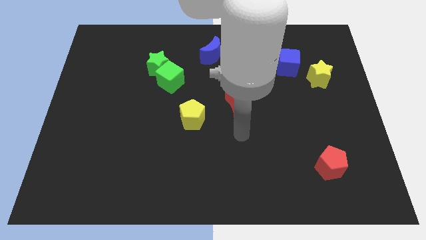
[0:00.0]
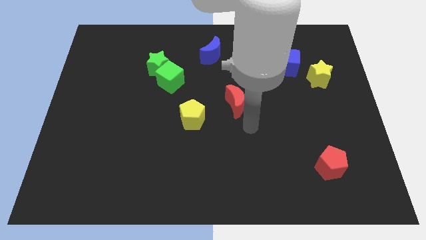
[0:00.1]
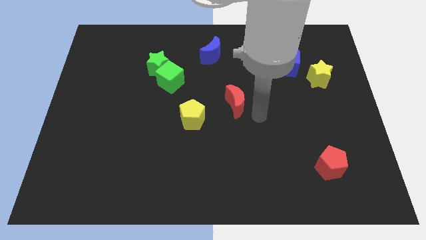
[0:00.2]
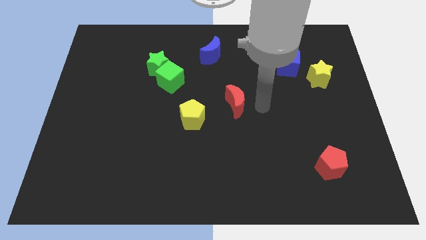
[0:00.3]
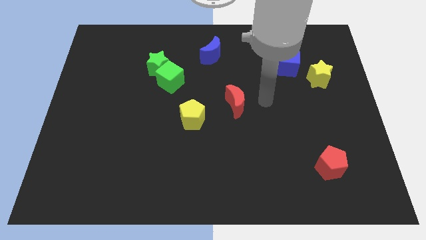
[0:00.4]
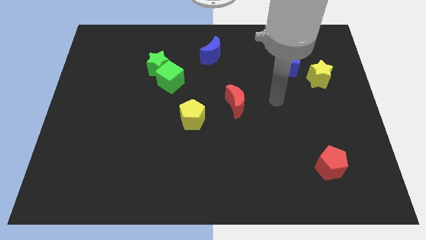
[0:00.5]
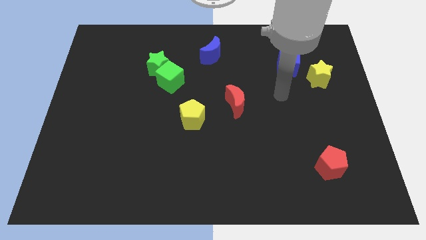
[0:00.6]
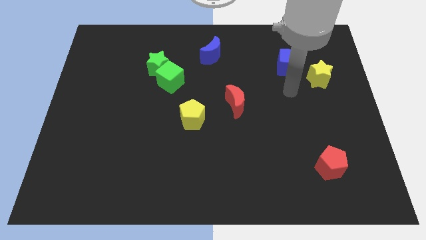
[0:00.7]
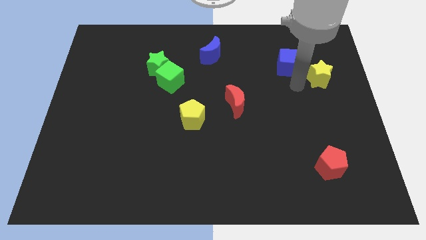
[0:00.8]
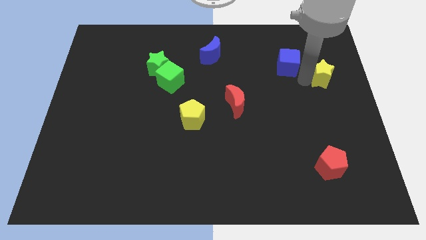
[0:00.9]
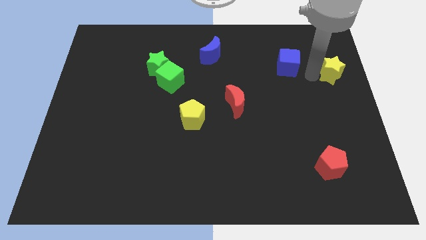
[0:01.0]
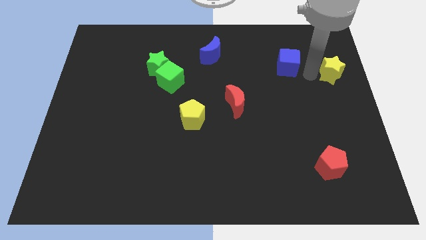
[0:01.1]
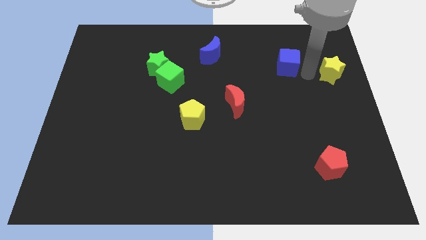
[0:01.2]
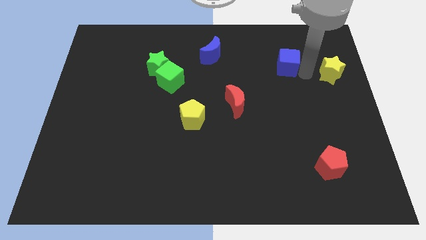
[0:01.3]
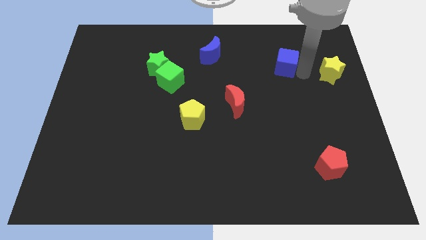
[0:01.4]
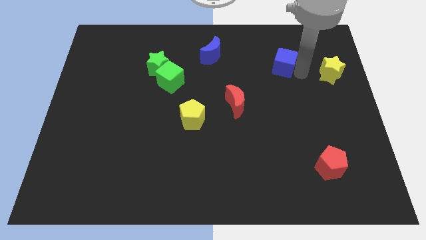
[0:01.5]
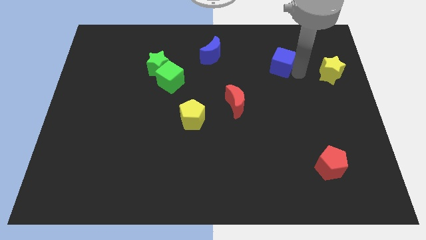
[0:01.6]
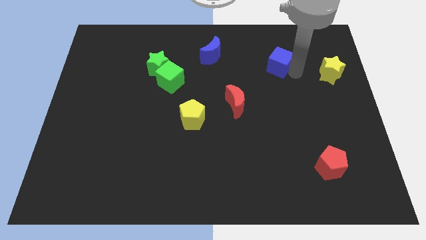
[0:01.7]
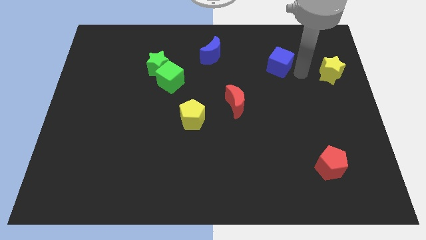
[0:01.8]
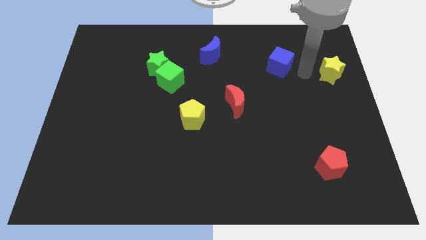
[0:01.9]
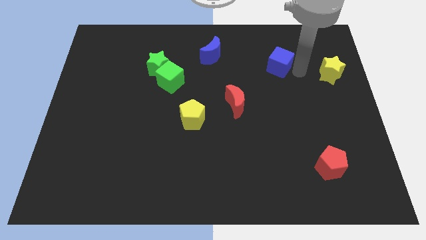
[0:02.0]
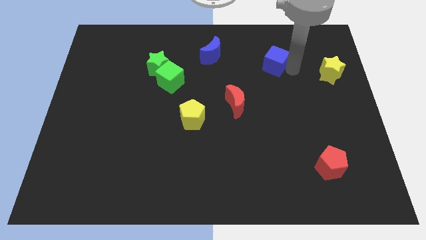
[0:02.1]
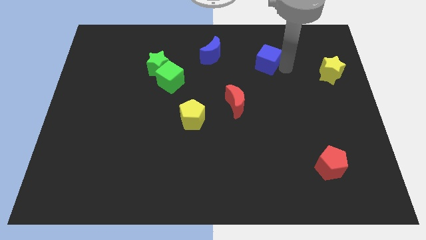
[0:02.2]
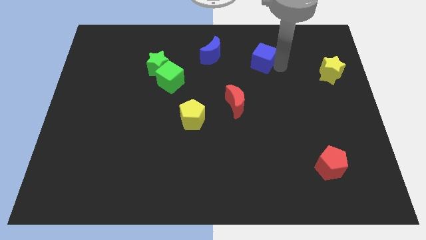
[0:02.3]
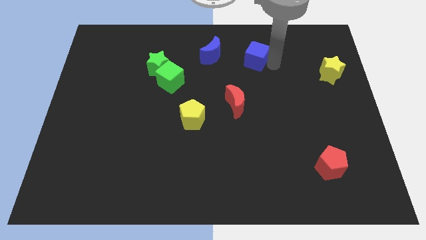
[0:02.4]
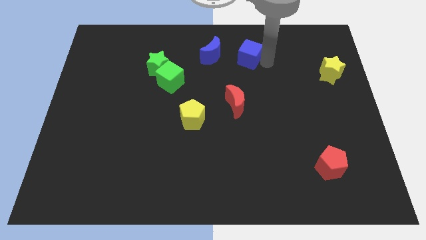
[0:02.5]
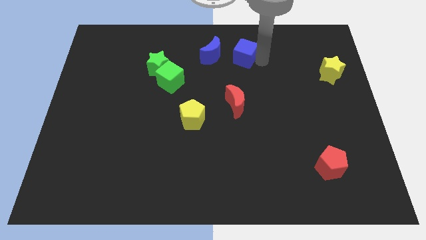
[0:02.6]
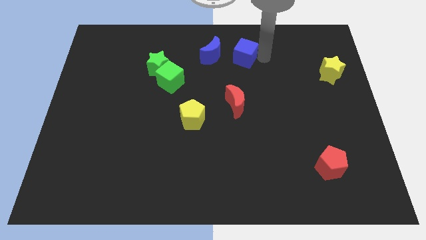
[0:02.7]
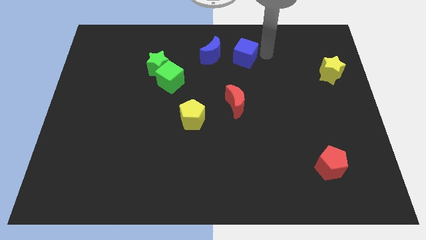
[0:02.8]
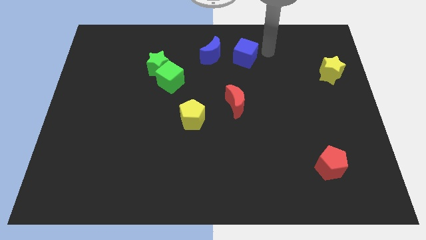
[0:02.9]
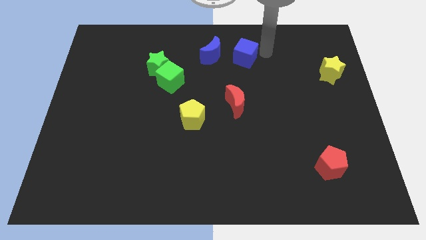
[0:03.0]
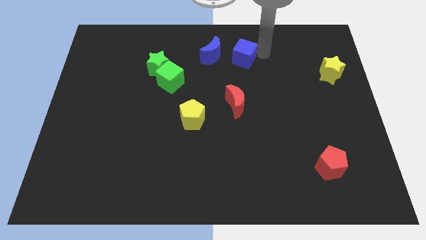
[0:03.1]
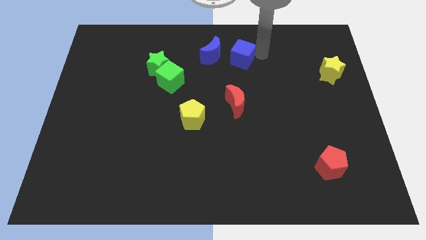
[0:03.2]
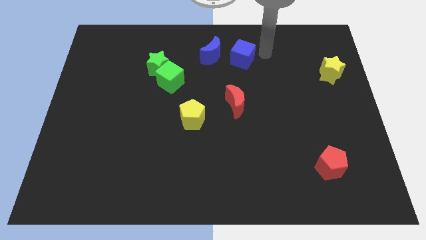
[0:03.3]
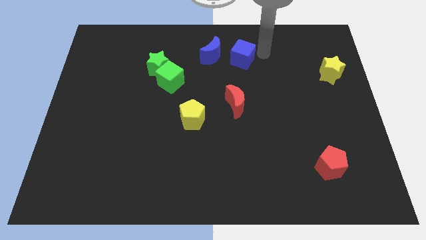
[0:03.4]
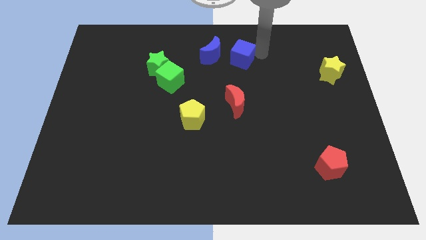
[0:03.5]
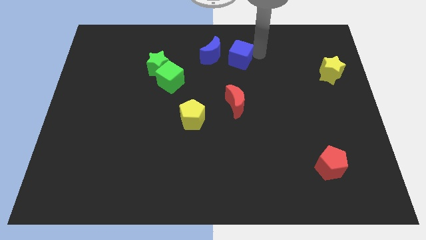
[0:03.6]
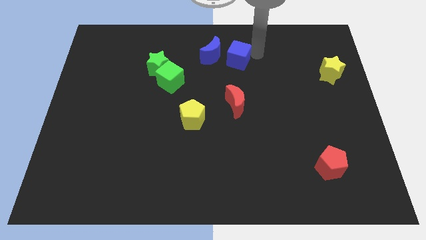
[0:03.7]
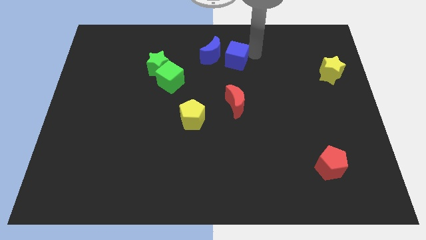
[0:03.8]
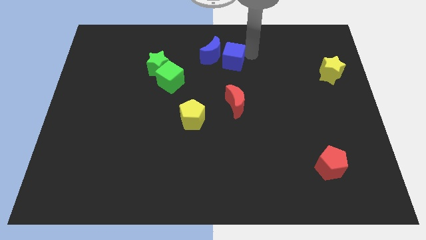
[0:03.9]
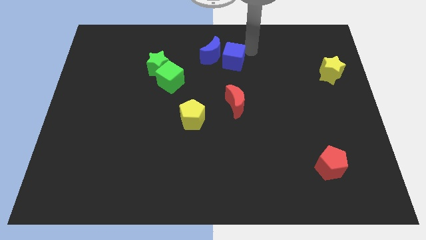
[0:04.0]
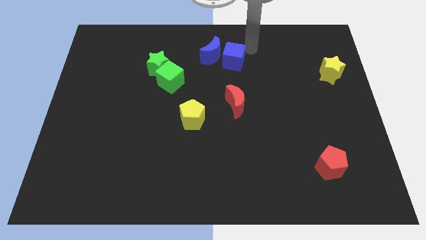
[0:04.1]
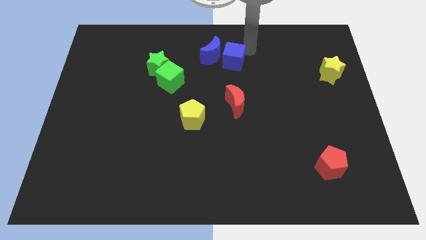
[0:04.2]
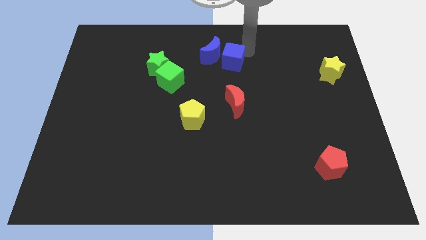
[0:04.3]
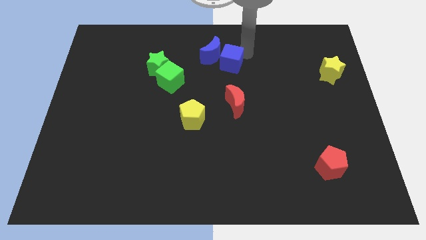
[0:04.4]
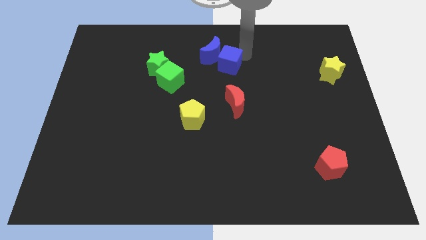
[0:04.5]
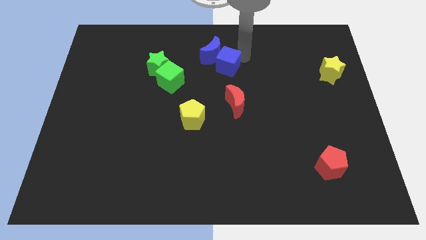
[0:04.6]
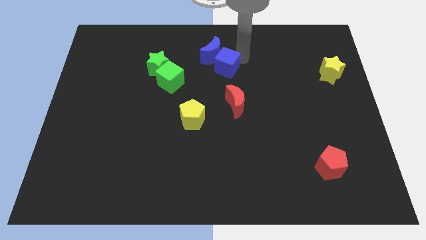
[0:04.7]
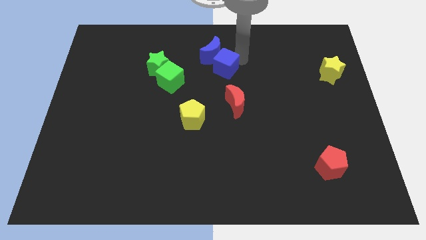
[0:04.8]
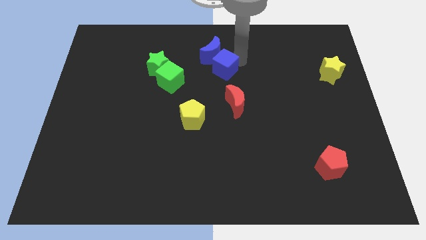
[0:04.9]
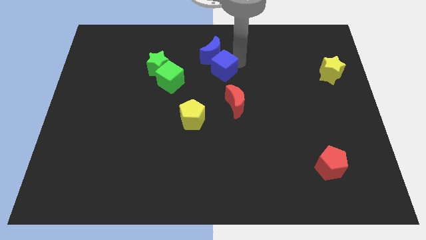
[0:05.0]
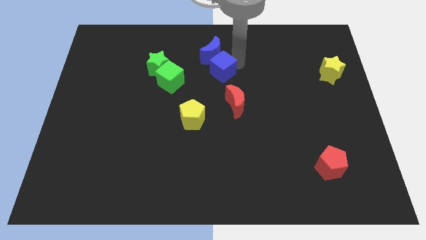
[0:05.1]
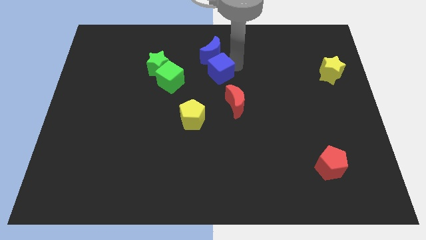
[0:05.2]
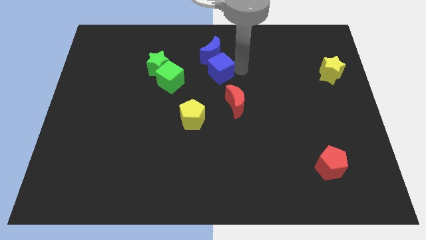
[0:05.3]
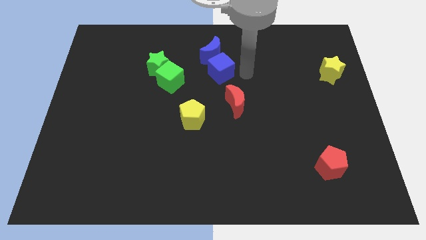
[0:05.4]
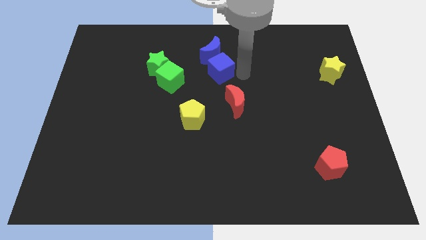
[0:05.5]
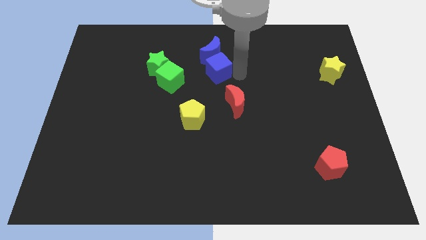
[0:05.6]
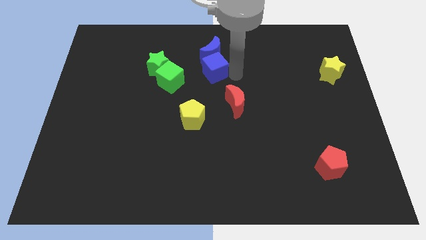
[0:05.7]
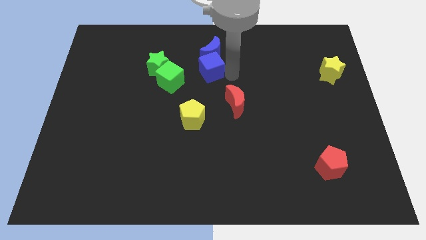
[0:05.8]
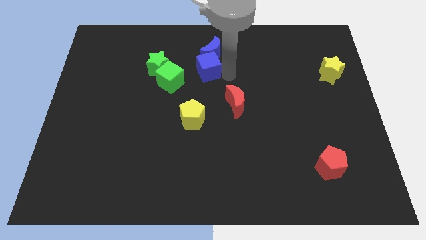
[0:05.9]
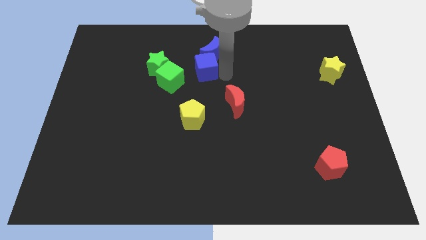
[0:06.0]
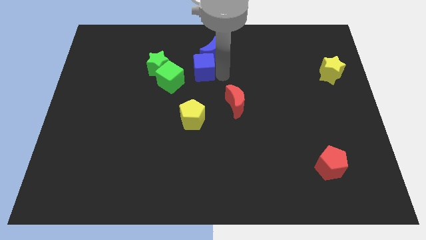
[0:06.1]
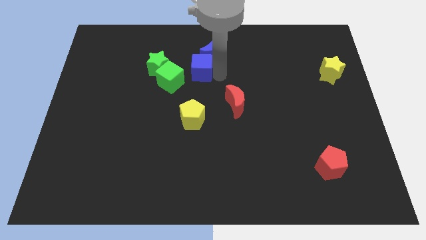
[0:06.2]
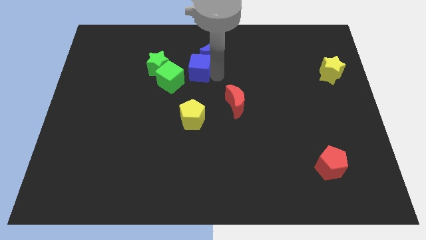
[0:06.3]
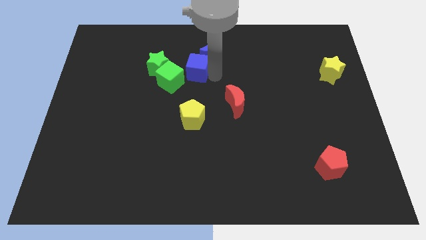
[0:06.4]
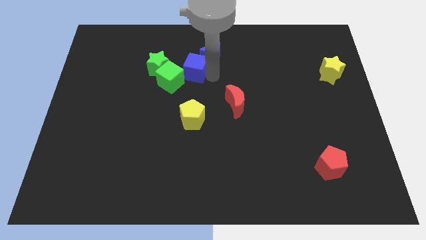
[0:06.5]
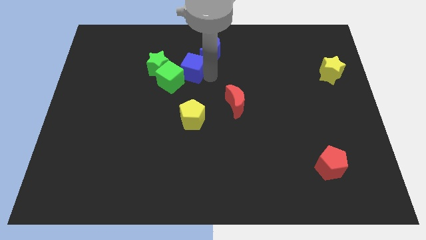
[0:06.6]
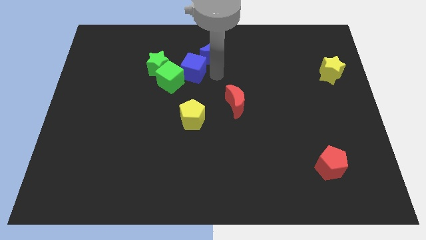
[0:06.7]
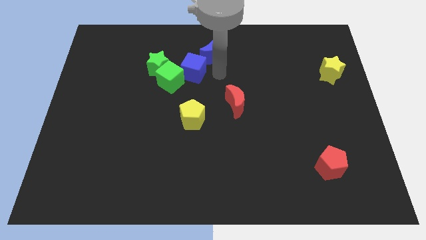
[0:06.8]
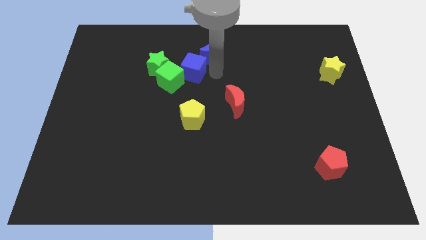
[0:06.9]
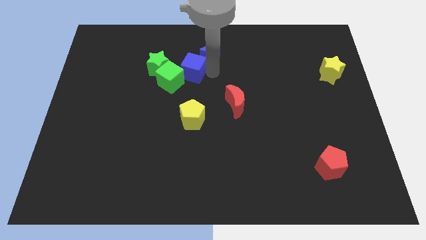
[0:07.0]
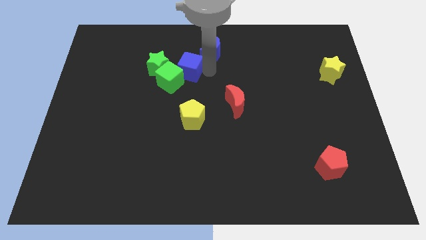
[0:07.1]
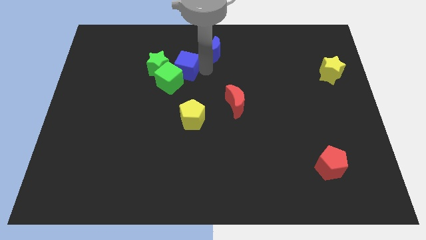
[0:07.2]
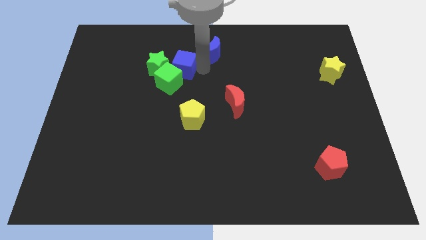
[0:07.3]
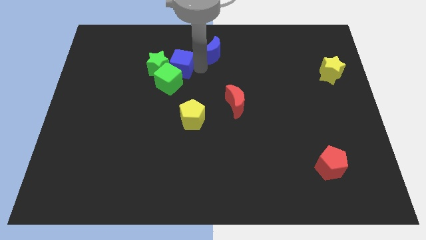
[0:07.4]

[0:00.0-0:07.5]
push the blue cube next to the green star

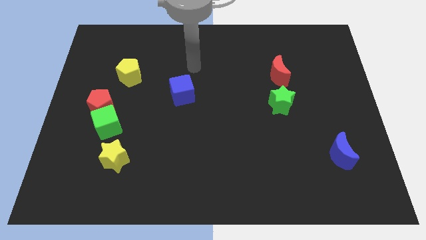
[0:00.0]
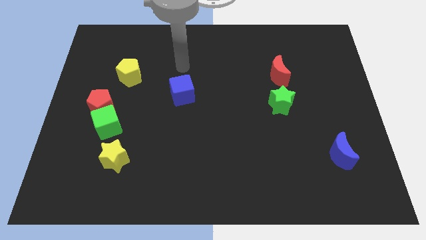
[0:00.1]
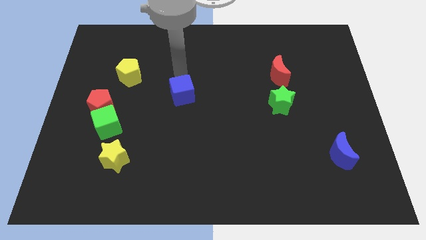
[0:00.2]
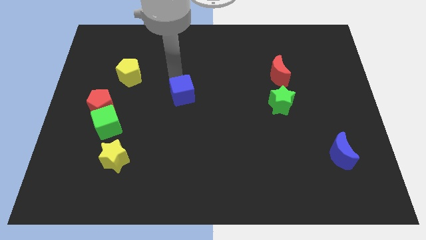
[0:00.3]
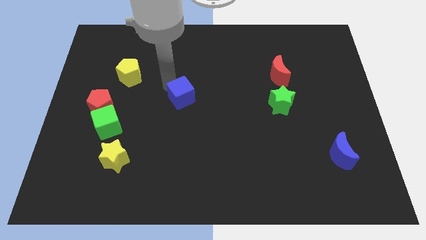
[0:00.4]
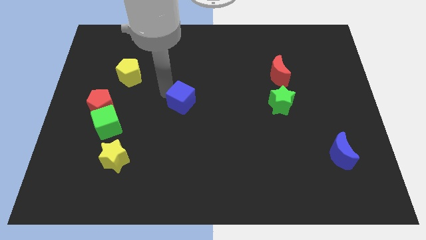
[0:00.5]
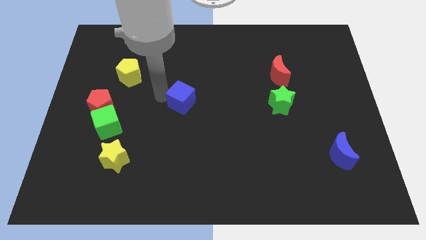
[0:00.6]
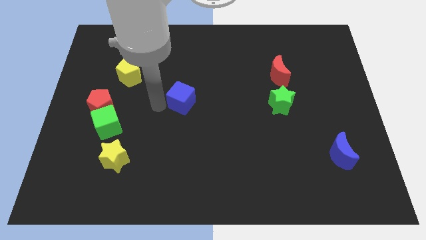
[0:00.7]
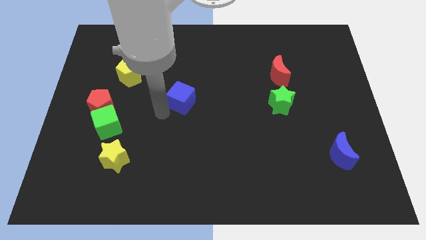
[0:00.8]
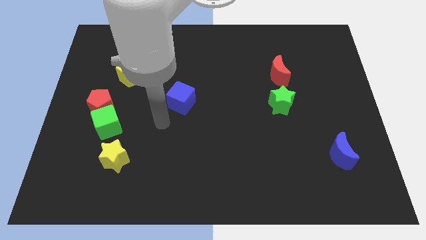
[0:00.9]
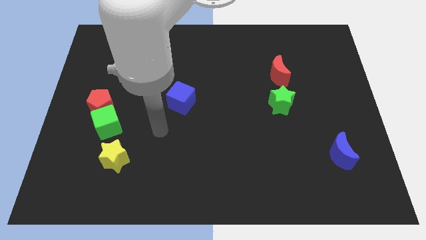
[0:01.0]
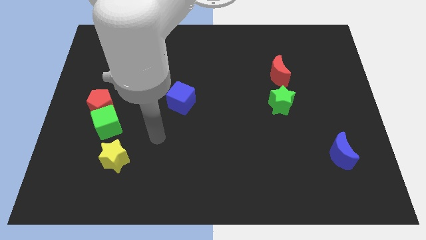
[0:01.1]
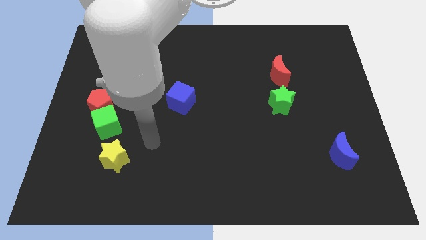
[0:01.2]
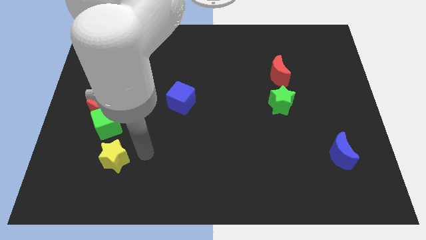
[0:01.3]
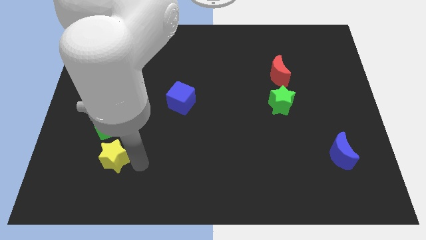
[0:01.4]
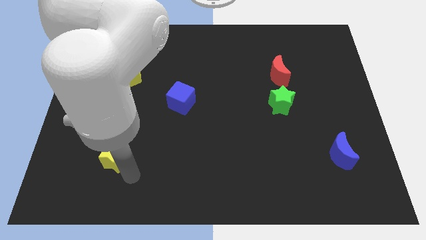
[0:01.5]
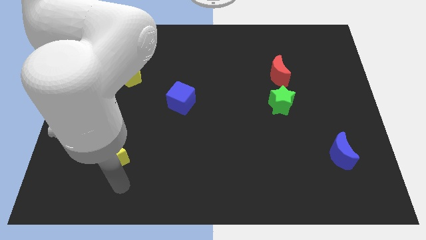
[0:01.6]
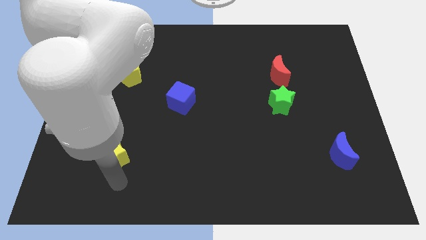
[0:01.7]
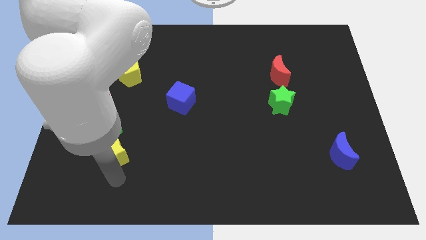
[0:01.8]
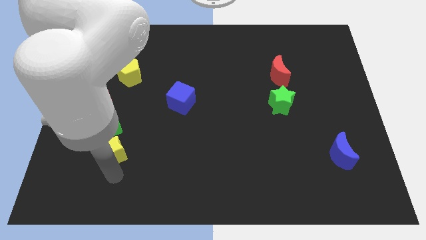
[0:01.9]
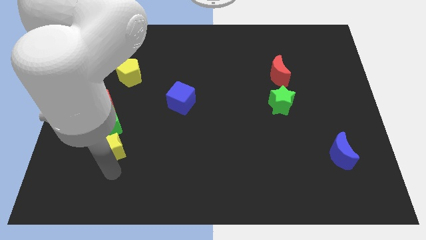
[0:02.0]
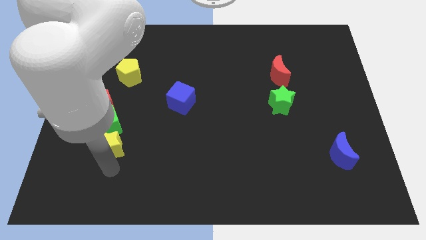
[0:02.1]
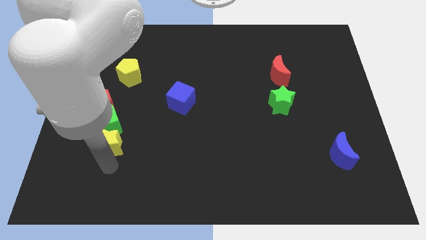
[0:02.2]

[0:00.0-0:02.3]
push the yellow star next to the green cube
